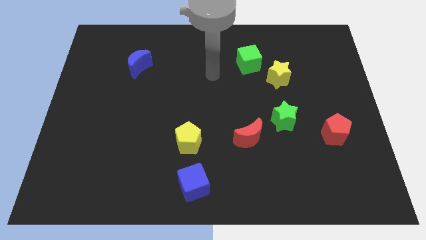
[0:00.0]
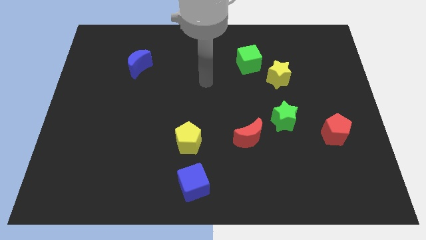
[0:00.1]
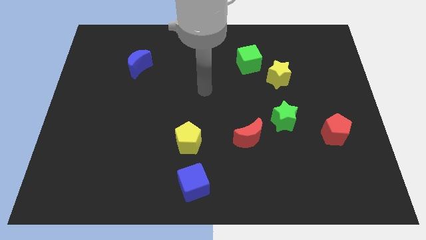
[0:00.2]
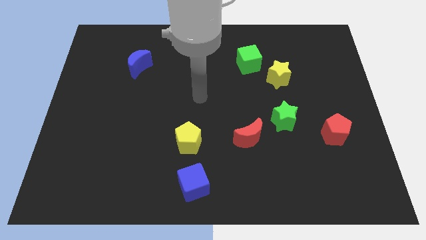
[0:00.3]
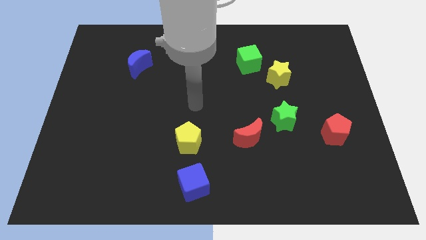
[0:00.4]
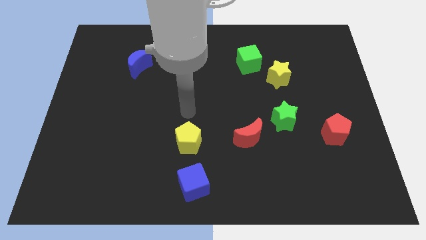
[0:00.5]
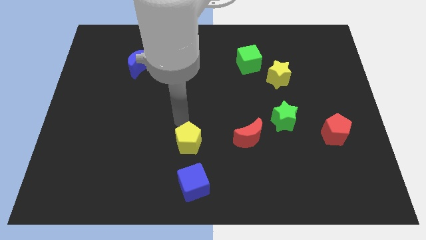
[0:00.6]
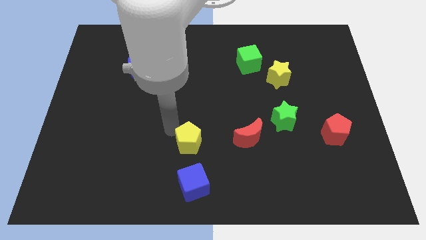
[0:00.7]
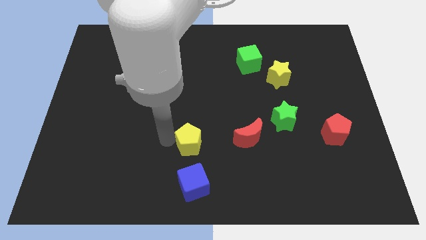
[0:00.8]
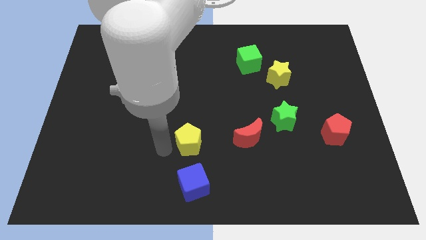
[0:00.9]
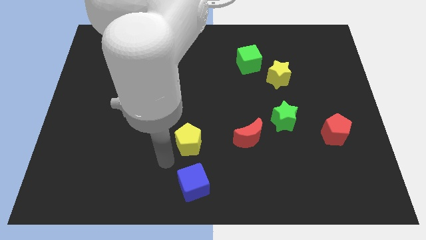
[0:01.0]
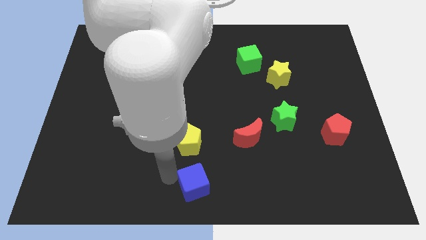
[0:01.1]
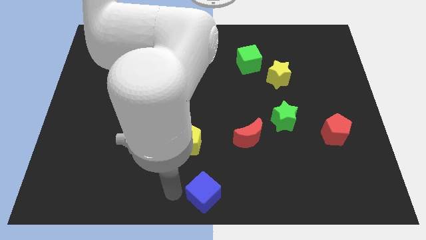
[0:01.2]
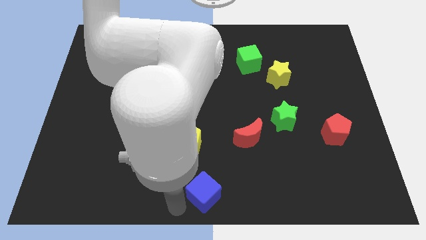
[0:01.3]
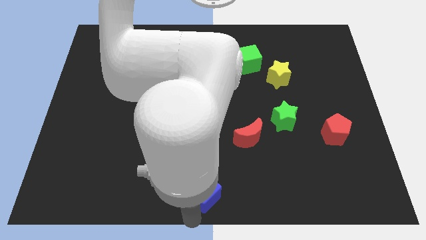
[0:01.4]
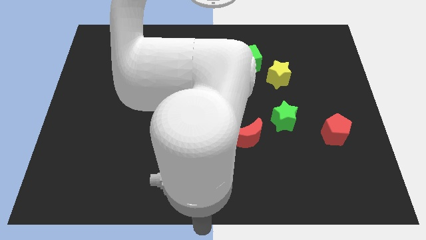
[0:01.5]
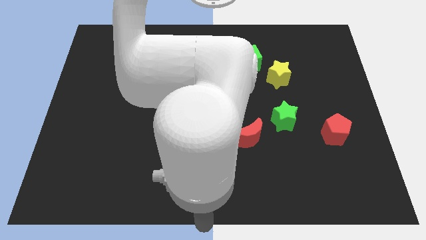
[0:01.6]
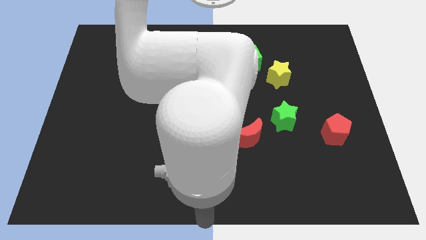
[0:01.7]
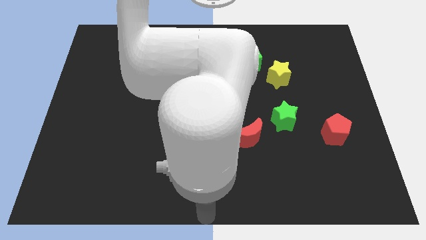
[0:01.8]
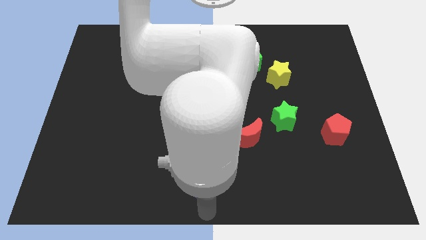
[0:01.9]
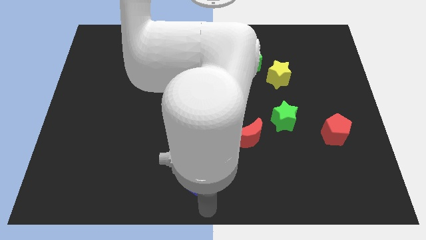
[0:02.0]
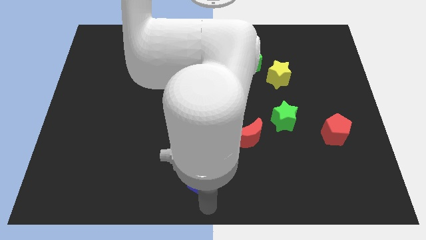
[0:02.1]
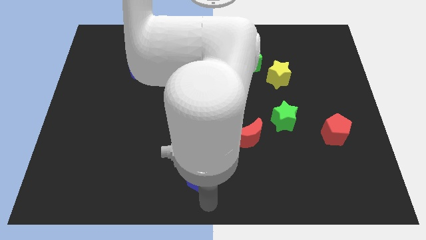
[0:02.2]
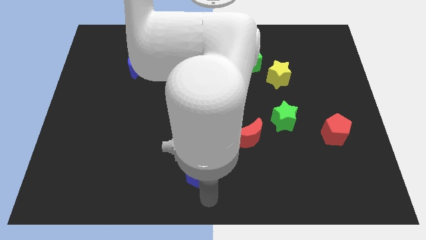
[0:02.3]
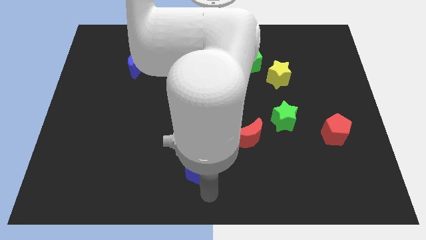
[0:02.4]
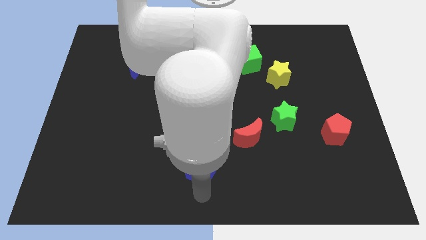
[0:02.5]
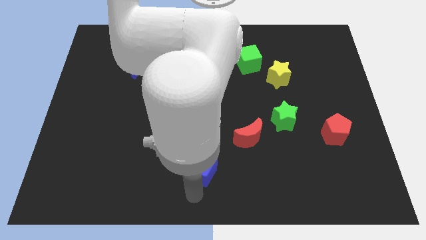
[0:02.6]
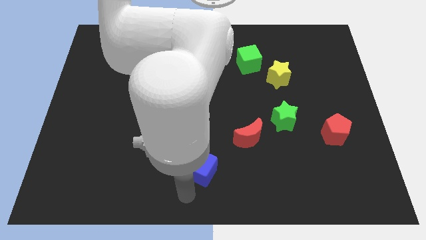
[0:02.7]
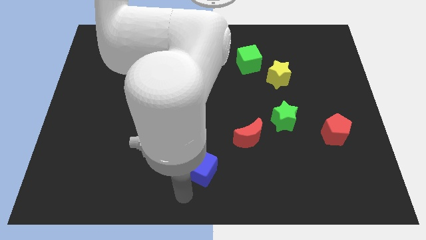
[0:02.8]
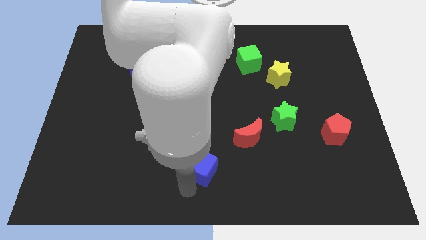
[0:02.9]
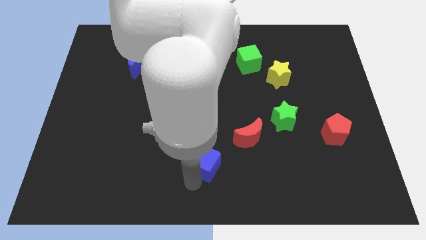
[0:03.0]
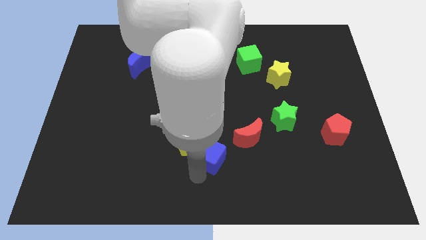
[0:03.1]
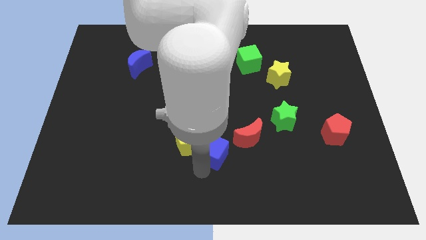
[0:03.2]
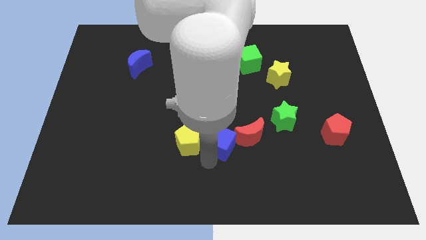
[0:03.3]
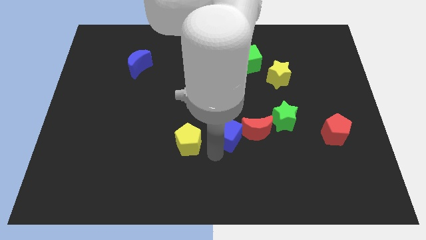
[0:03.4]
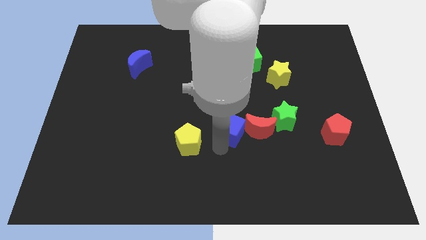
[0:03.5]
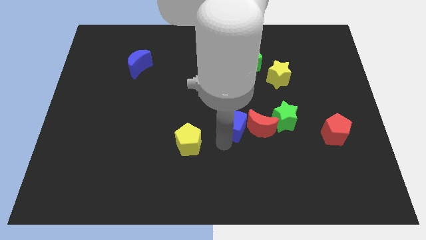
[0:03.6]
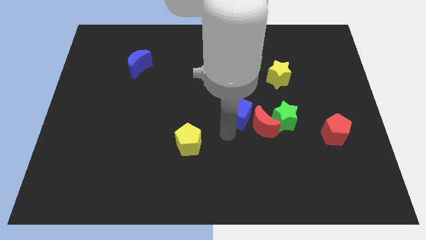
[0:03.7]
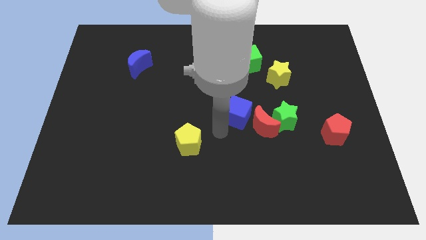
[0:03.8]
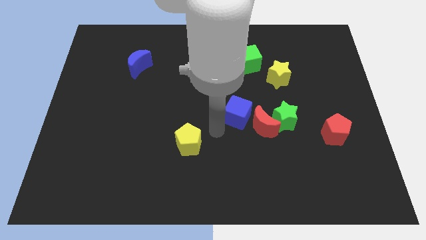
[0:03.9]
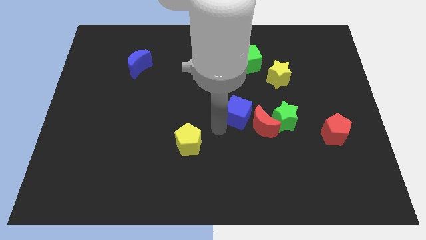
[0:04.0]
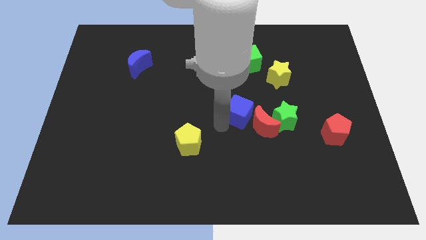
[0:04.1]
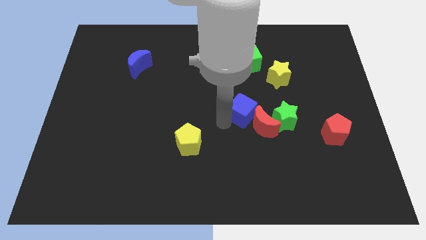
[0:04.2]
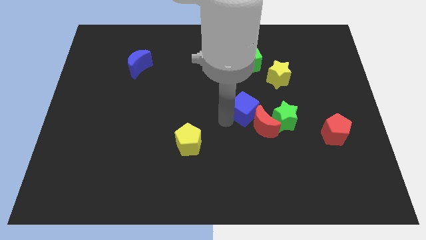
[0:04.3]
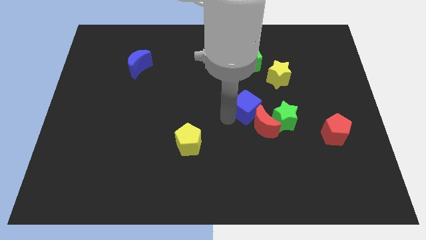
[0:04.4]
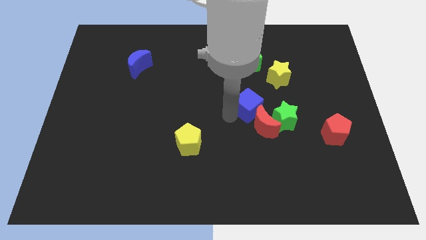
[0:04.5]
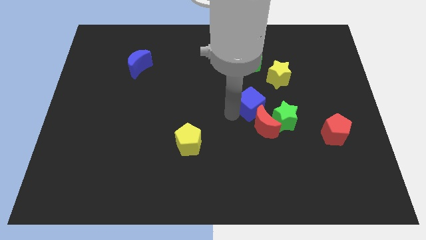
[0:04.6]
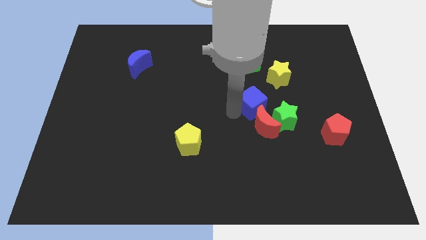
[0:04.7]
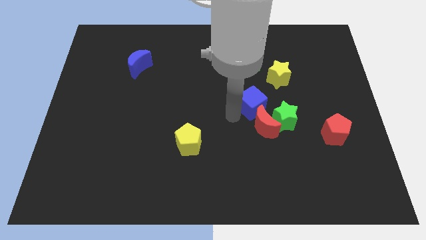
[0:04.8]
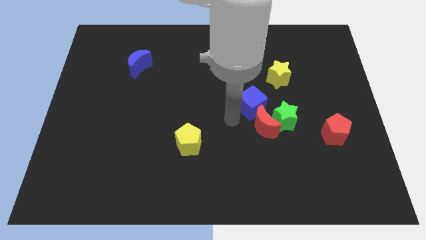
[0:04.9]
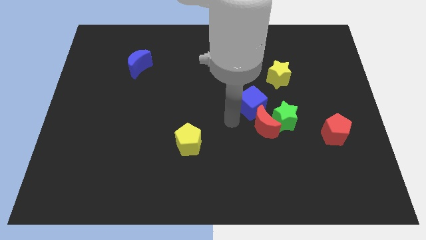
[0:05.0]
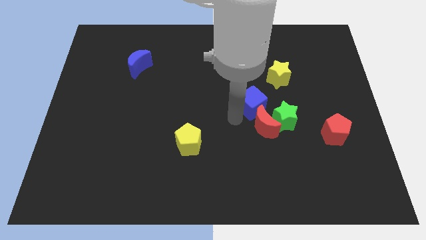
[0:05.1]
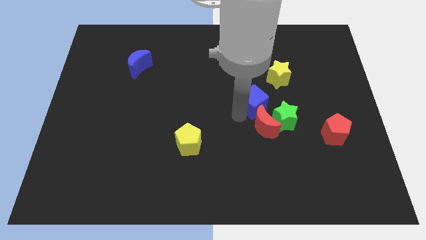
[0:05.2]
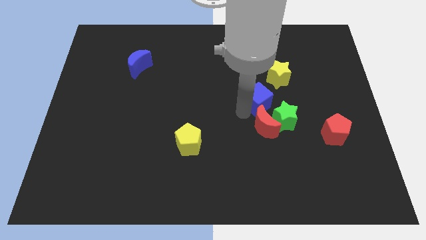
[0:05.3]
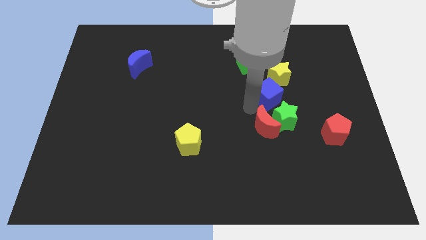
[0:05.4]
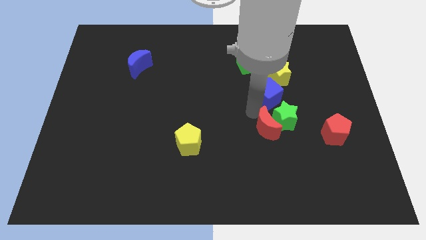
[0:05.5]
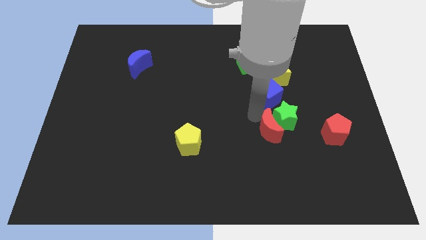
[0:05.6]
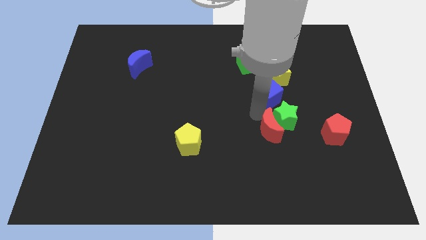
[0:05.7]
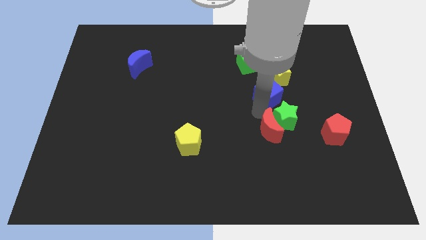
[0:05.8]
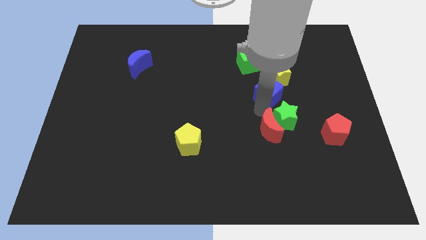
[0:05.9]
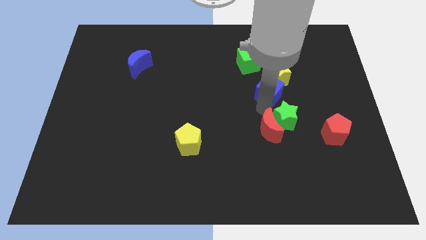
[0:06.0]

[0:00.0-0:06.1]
push the blue cube close to the yellow star

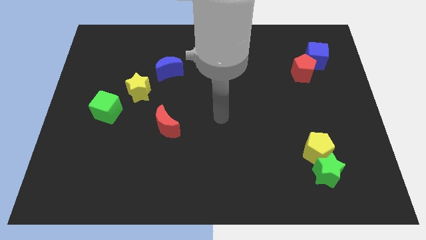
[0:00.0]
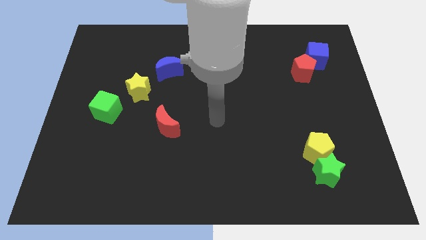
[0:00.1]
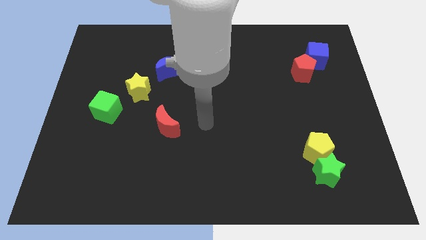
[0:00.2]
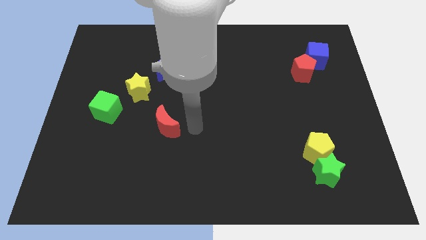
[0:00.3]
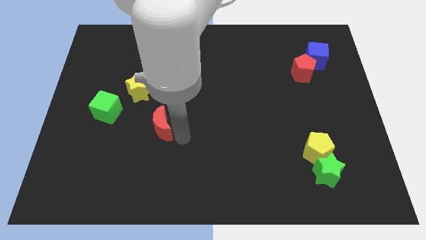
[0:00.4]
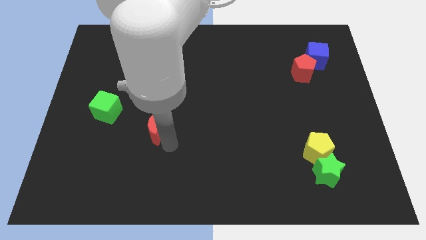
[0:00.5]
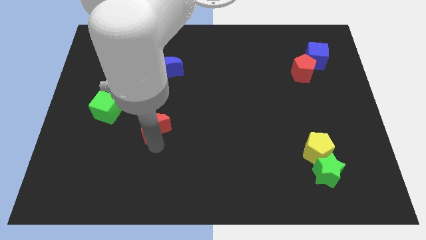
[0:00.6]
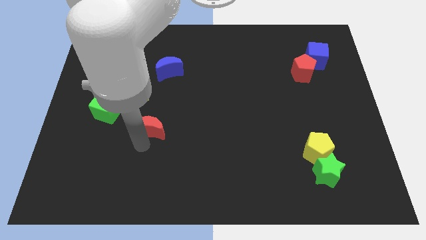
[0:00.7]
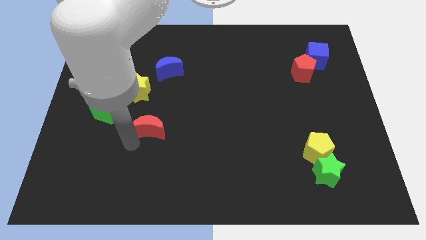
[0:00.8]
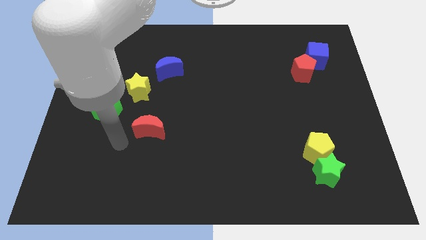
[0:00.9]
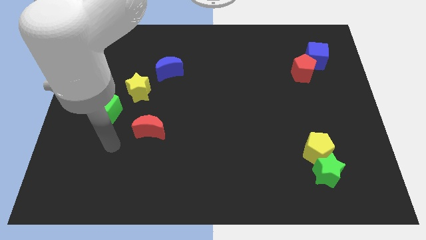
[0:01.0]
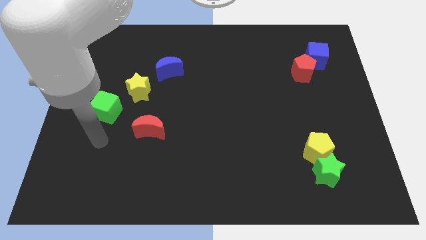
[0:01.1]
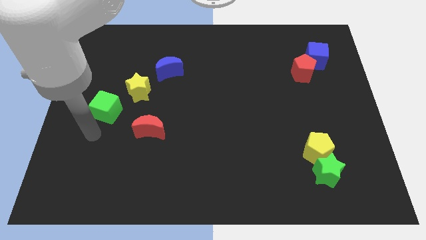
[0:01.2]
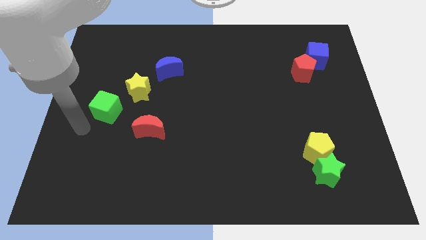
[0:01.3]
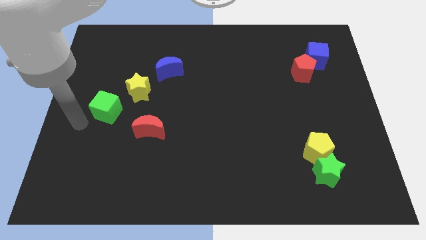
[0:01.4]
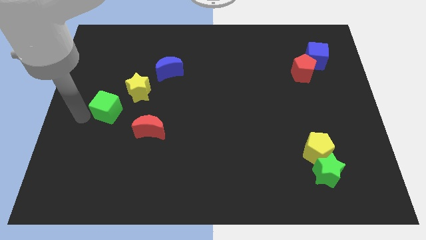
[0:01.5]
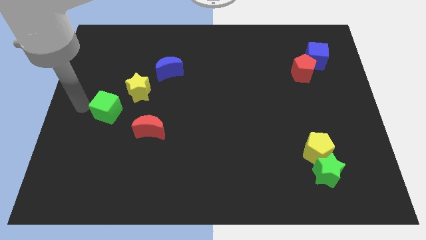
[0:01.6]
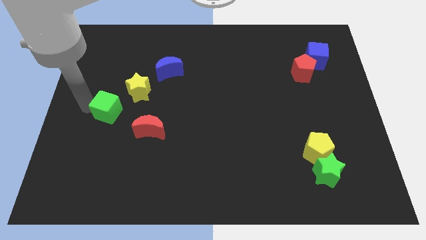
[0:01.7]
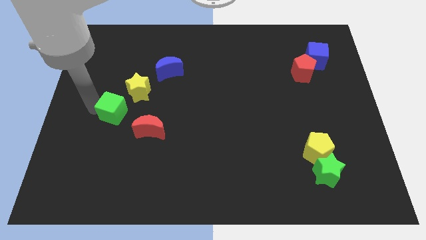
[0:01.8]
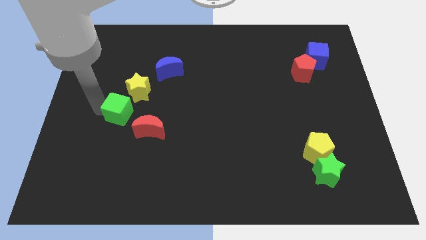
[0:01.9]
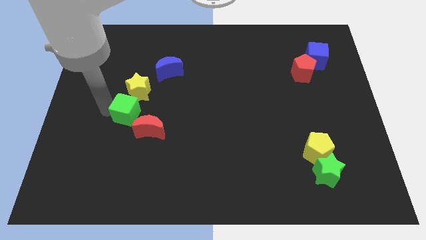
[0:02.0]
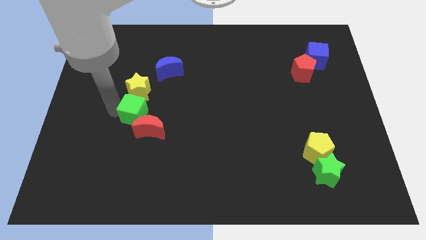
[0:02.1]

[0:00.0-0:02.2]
move the green cube close to the red moon
